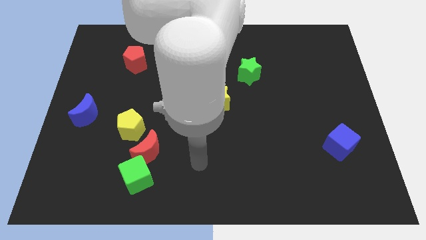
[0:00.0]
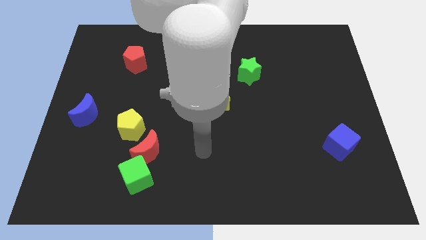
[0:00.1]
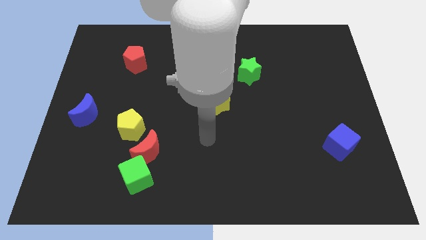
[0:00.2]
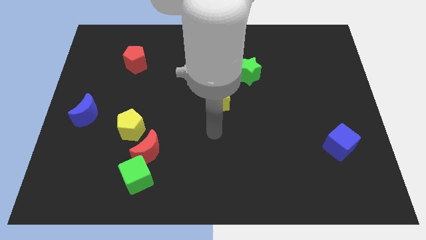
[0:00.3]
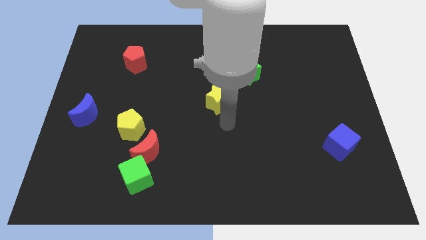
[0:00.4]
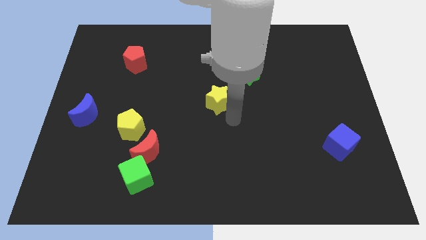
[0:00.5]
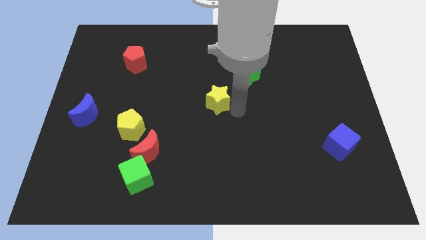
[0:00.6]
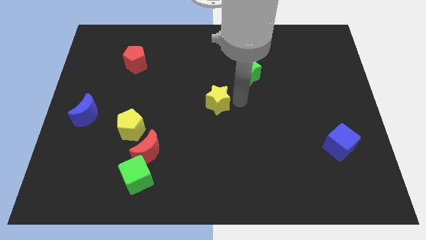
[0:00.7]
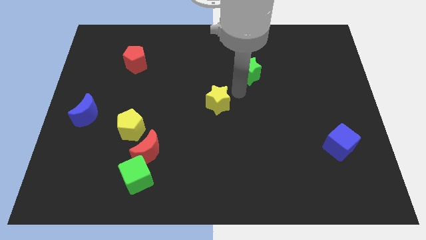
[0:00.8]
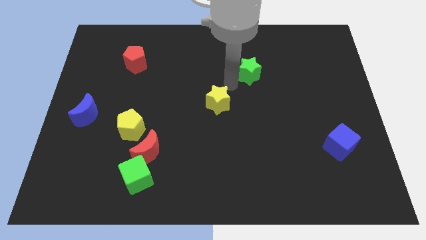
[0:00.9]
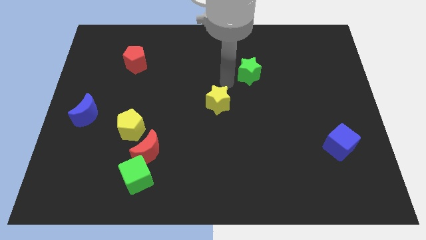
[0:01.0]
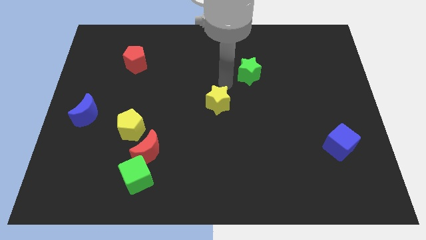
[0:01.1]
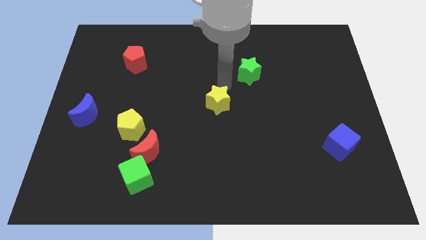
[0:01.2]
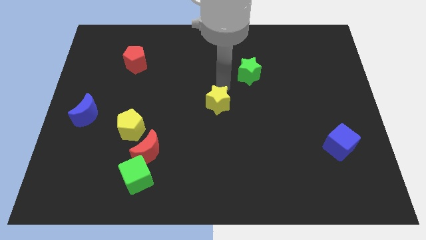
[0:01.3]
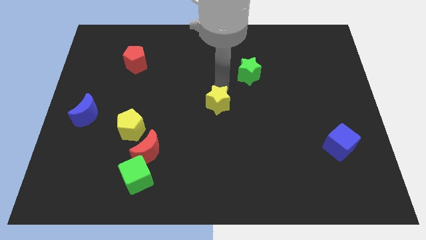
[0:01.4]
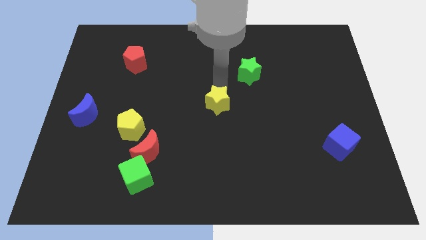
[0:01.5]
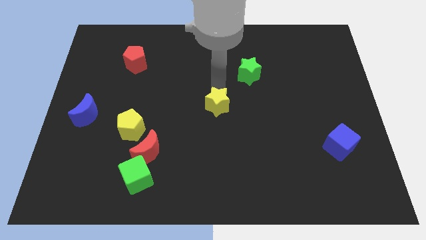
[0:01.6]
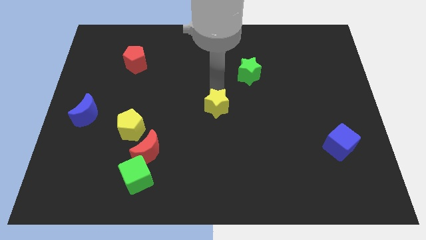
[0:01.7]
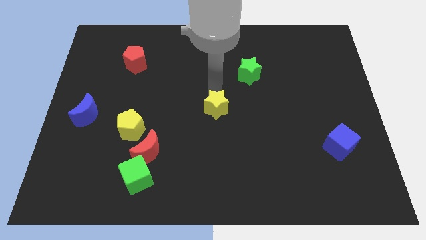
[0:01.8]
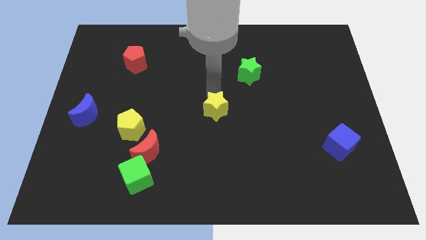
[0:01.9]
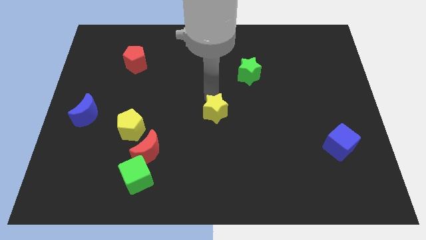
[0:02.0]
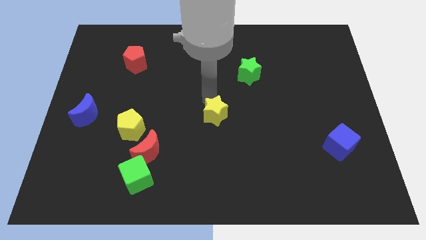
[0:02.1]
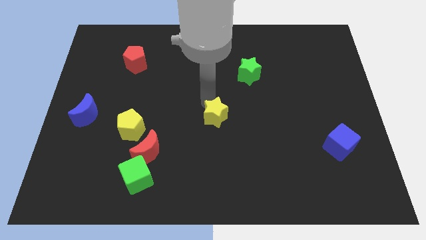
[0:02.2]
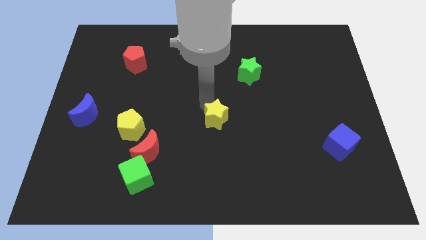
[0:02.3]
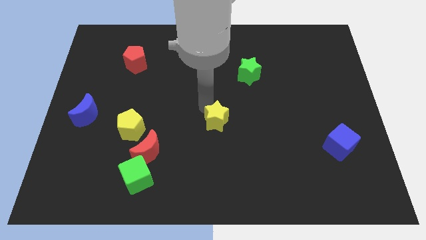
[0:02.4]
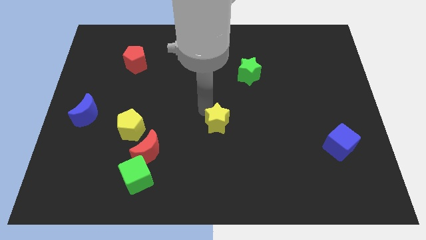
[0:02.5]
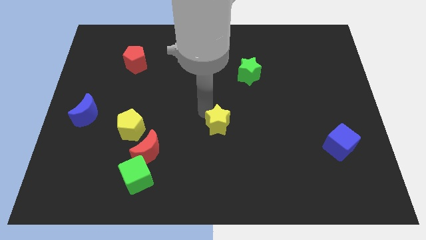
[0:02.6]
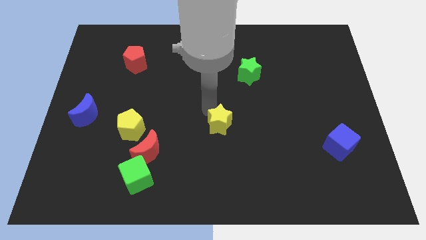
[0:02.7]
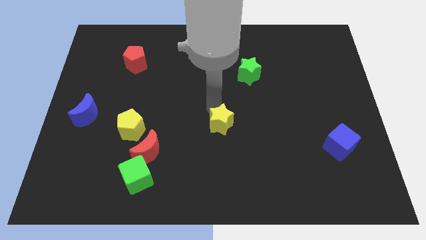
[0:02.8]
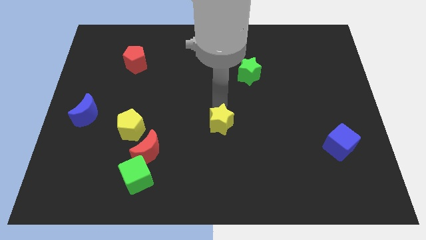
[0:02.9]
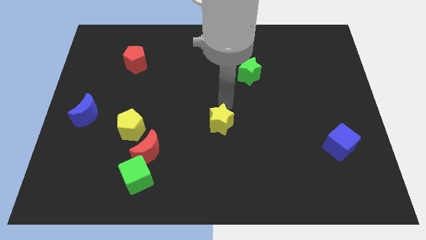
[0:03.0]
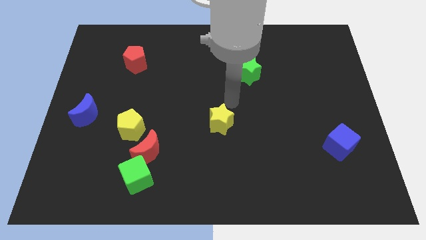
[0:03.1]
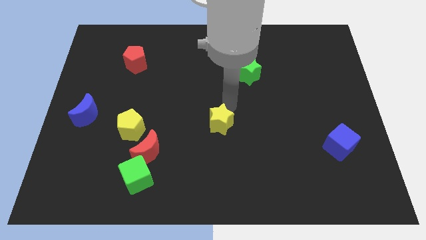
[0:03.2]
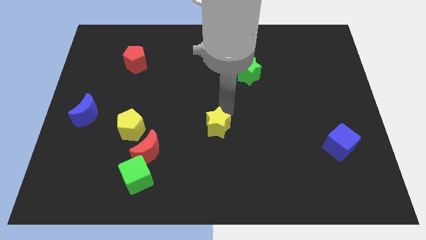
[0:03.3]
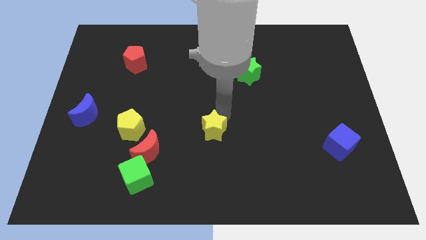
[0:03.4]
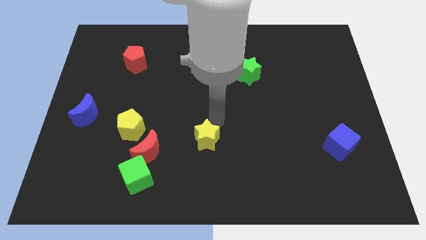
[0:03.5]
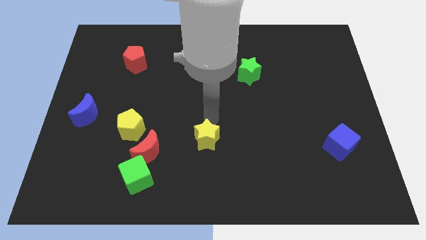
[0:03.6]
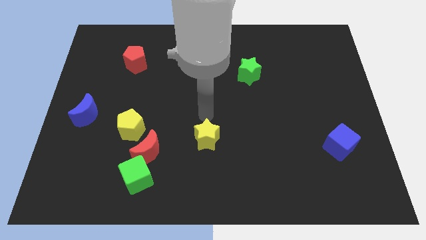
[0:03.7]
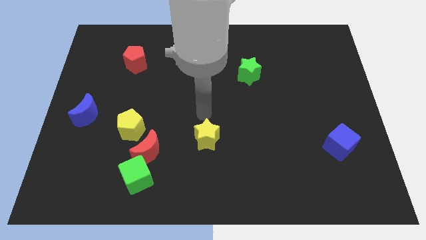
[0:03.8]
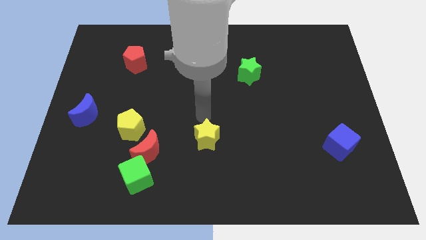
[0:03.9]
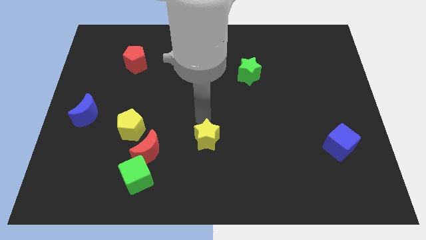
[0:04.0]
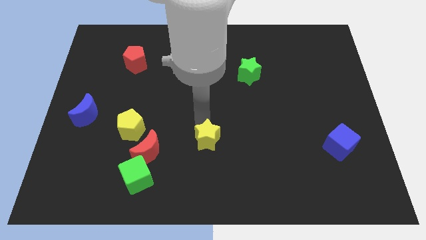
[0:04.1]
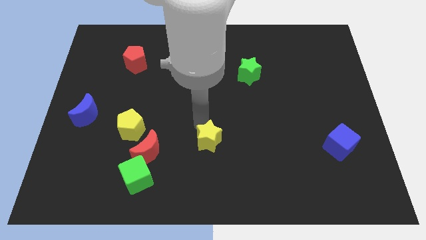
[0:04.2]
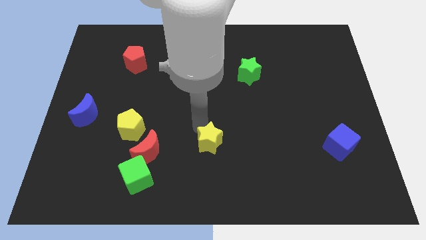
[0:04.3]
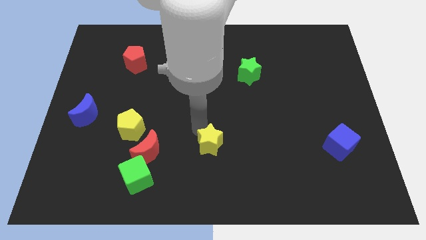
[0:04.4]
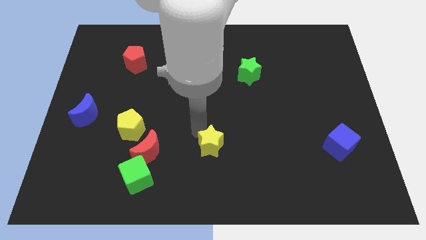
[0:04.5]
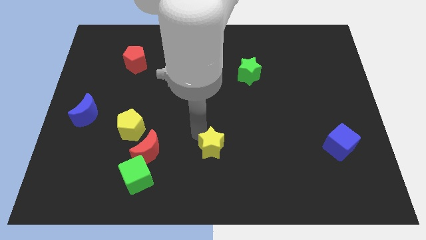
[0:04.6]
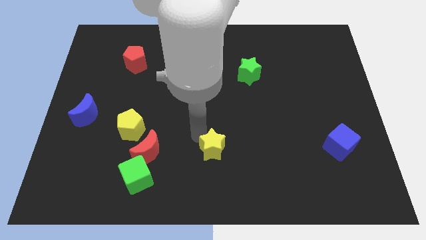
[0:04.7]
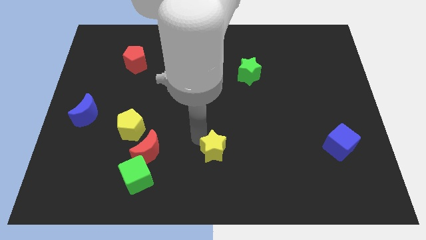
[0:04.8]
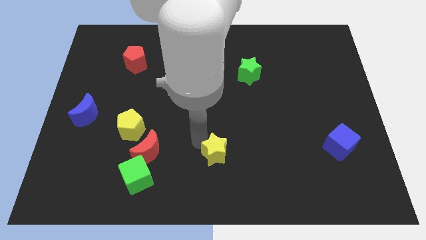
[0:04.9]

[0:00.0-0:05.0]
slide the yellow star to the bottom side

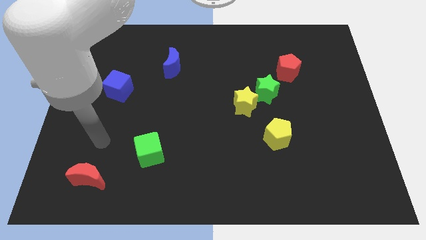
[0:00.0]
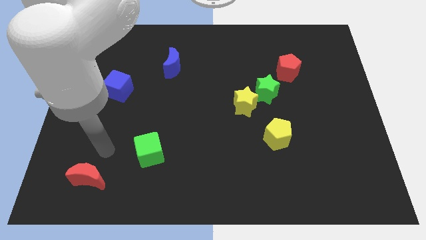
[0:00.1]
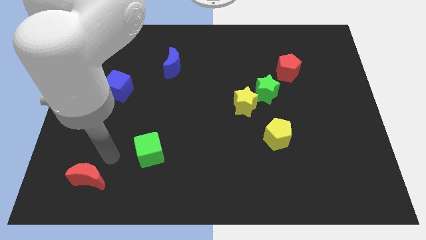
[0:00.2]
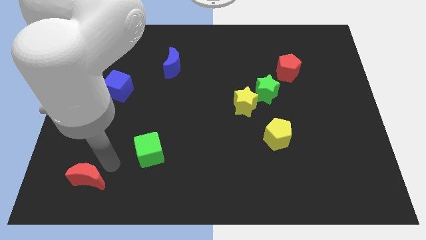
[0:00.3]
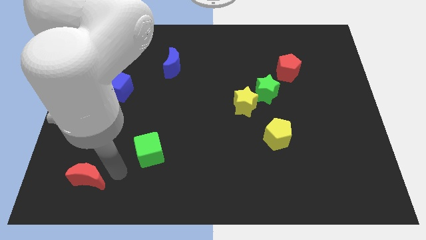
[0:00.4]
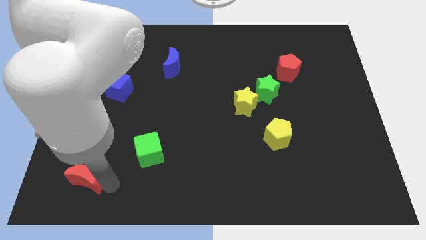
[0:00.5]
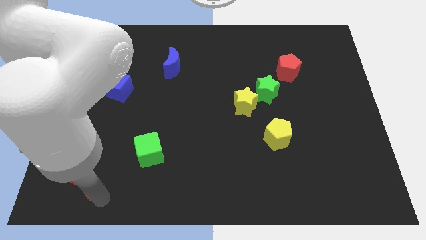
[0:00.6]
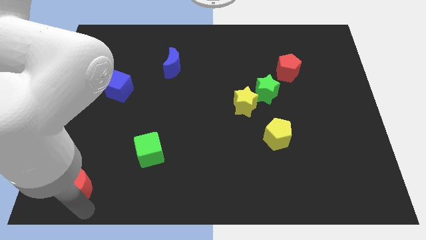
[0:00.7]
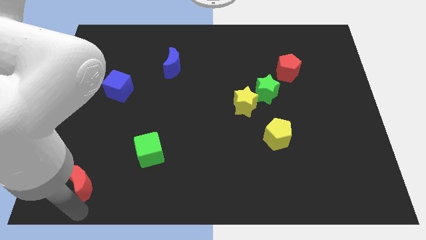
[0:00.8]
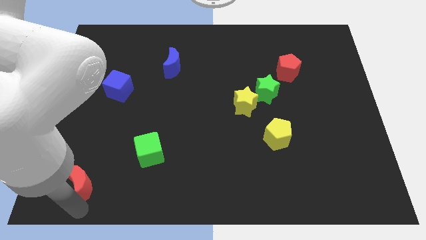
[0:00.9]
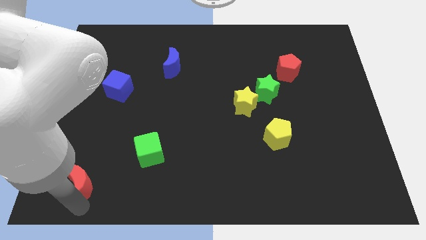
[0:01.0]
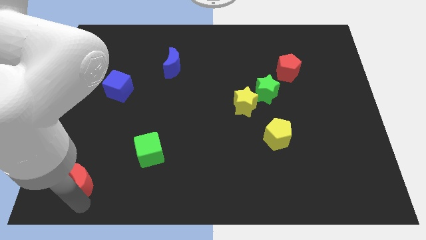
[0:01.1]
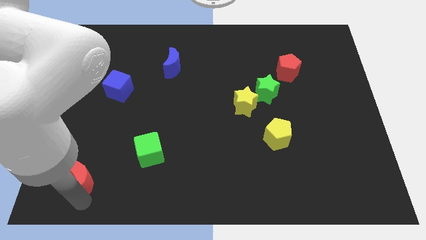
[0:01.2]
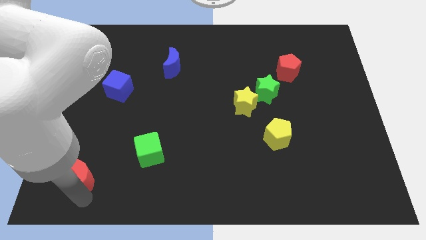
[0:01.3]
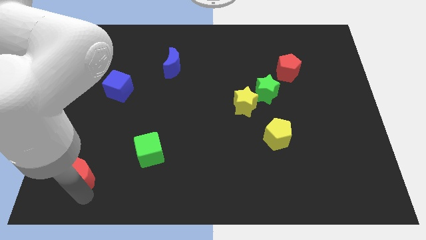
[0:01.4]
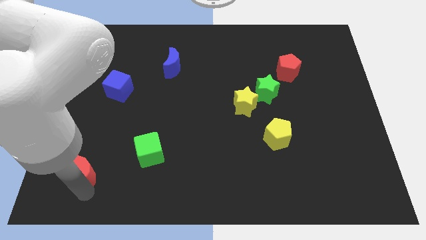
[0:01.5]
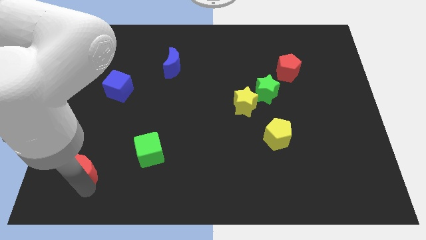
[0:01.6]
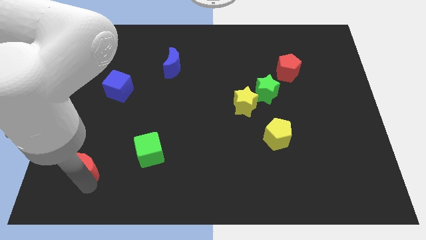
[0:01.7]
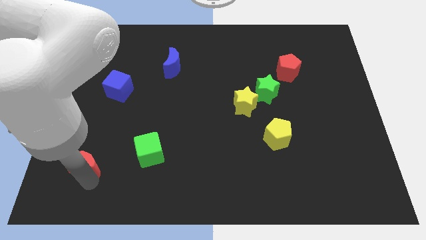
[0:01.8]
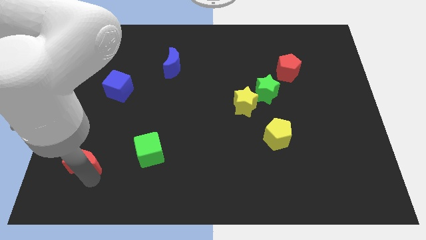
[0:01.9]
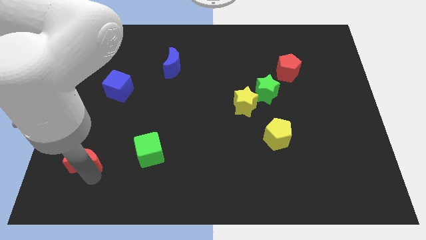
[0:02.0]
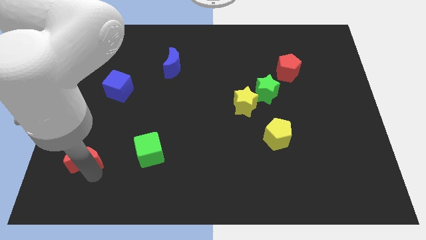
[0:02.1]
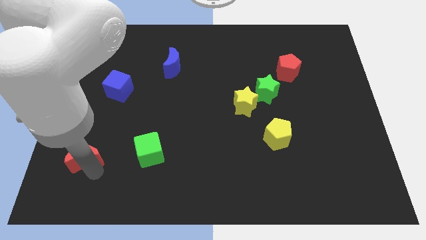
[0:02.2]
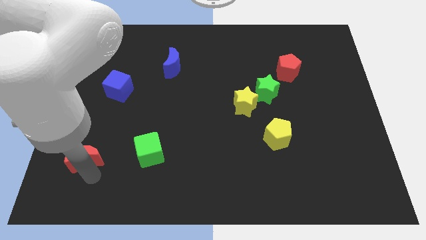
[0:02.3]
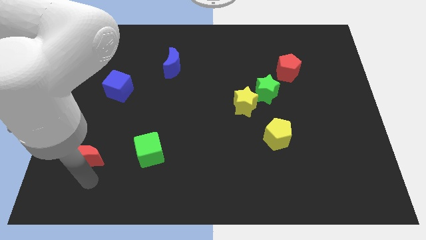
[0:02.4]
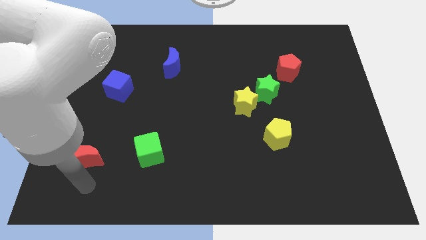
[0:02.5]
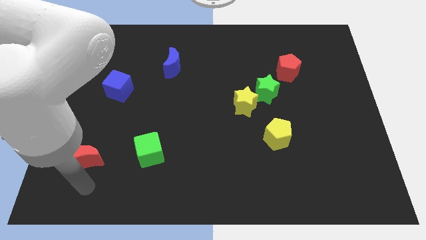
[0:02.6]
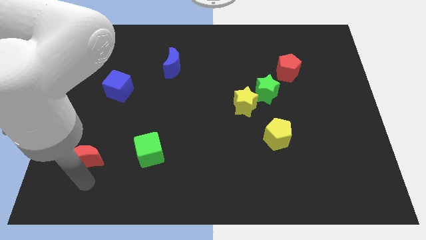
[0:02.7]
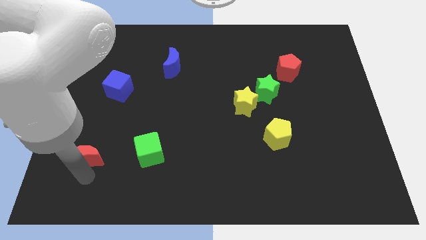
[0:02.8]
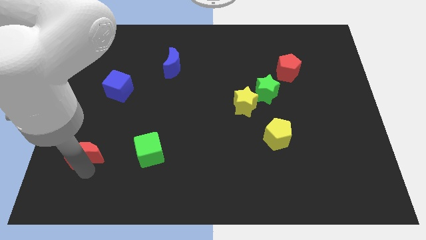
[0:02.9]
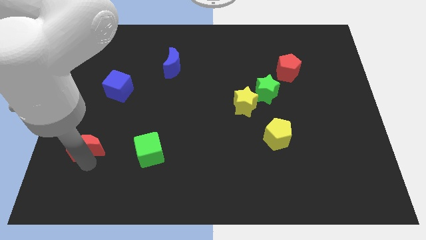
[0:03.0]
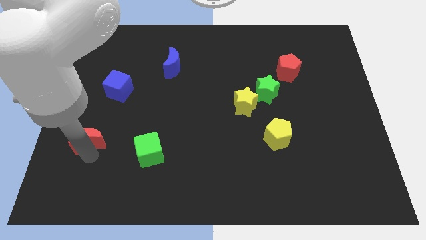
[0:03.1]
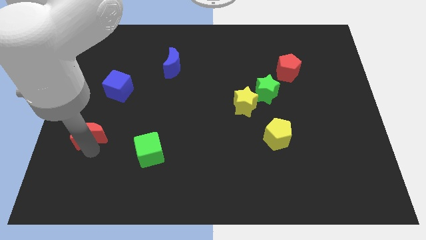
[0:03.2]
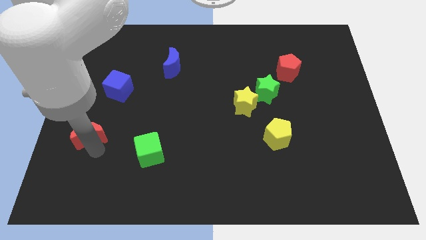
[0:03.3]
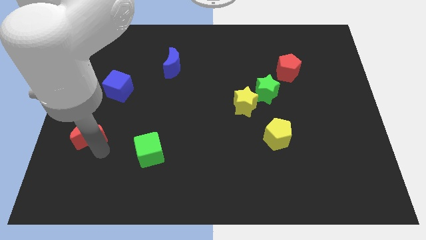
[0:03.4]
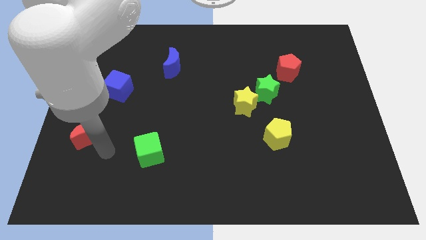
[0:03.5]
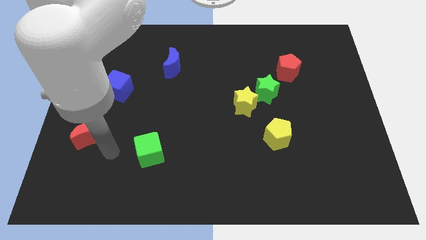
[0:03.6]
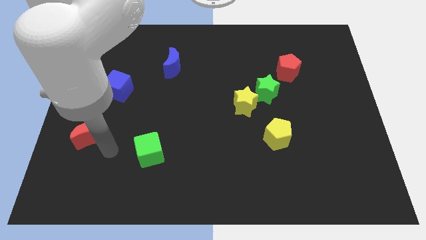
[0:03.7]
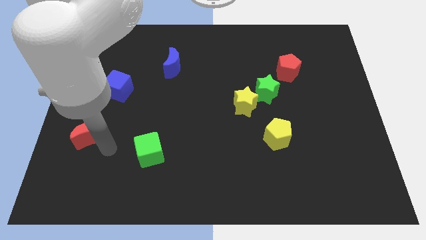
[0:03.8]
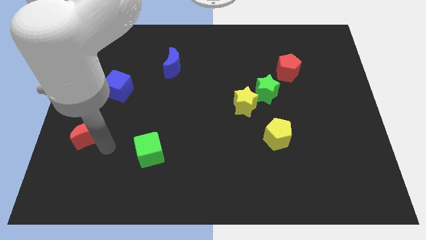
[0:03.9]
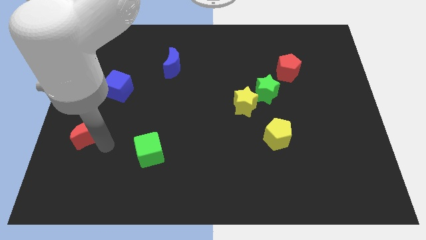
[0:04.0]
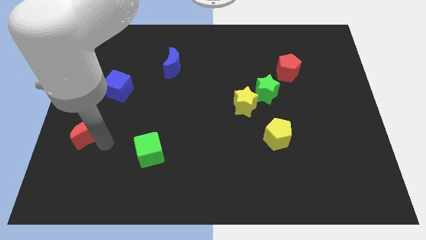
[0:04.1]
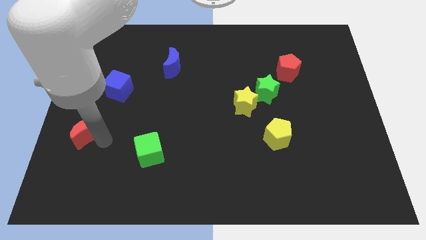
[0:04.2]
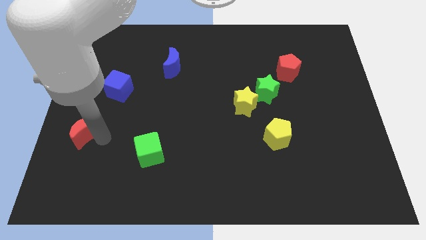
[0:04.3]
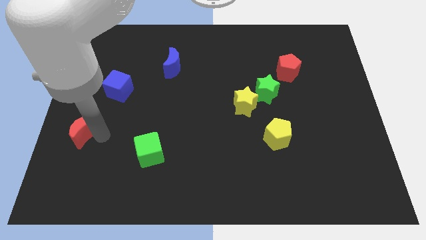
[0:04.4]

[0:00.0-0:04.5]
move the red moon to the center left
